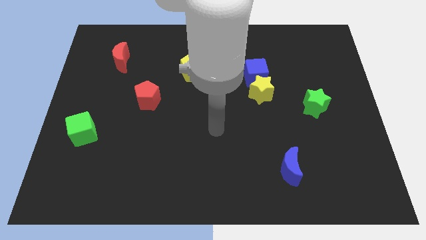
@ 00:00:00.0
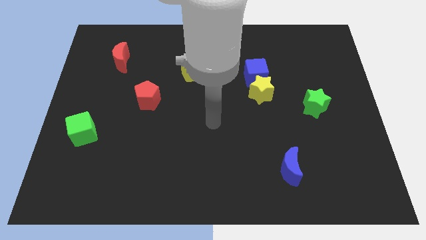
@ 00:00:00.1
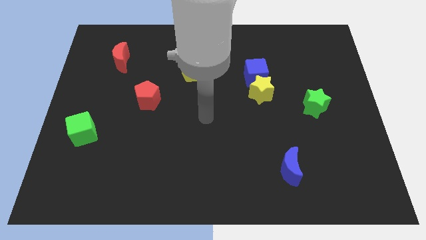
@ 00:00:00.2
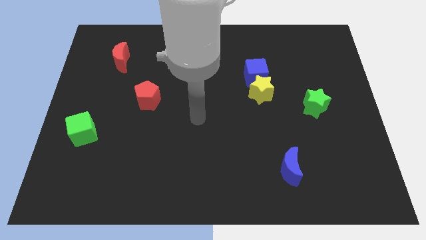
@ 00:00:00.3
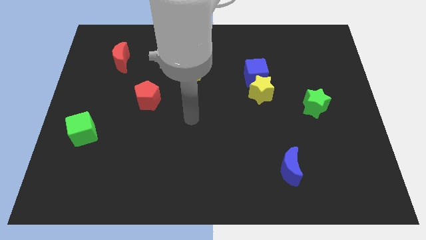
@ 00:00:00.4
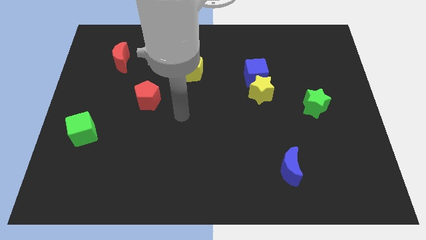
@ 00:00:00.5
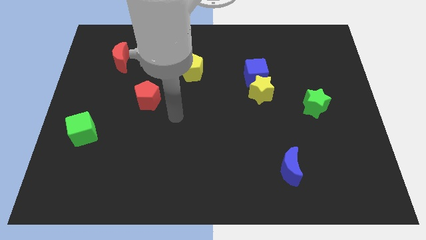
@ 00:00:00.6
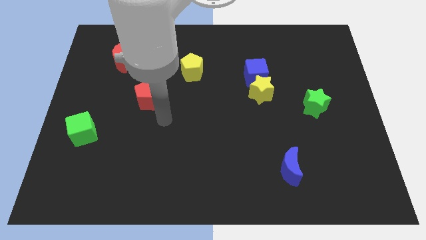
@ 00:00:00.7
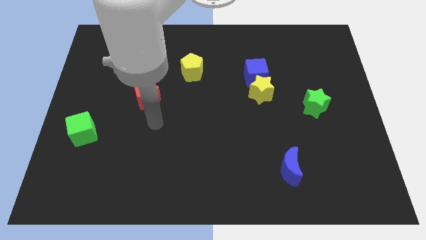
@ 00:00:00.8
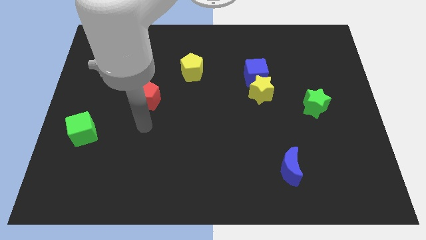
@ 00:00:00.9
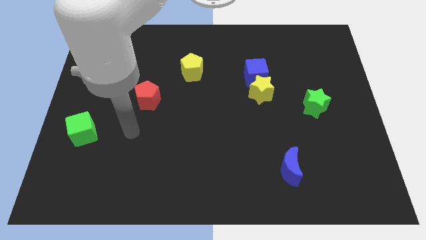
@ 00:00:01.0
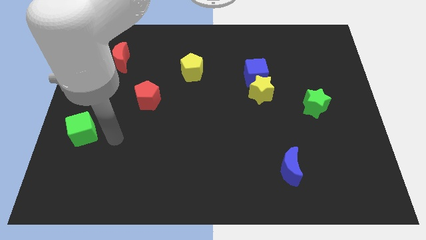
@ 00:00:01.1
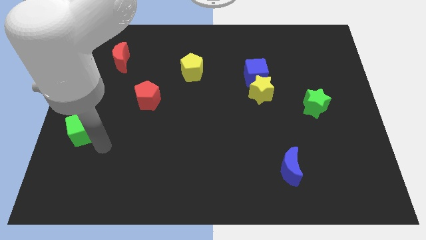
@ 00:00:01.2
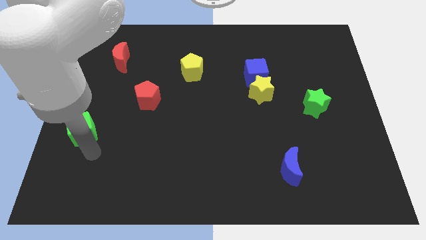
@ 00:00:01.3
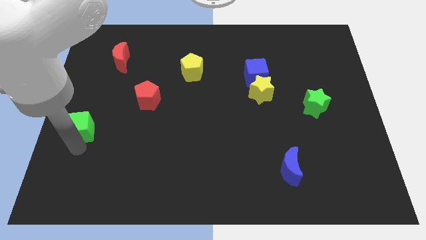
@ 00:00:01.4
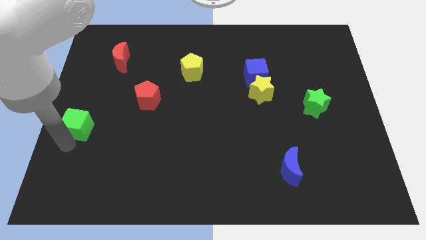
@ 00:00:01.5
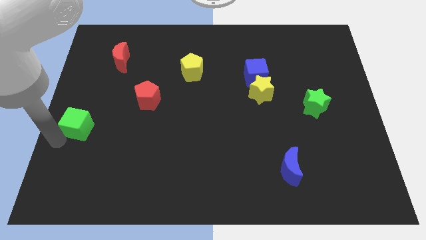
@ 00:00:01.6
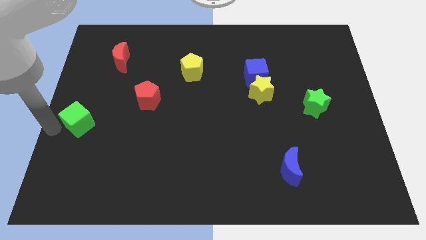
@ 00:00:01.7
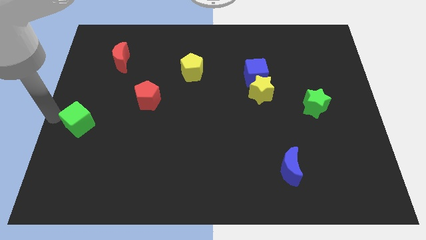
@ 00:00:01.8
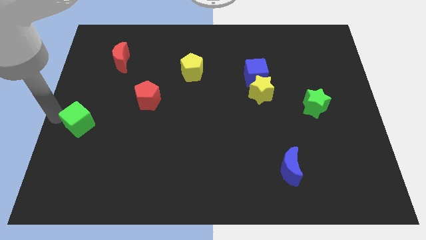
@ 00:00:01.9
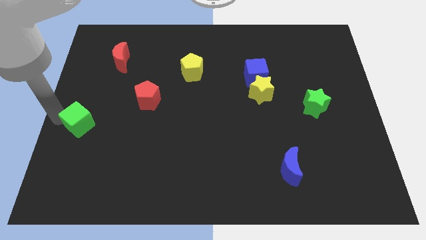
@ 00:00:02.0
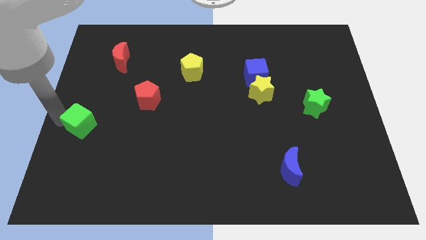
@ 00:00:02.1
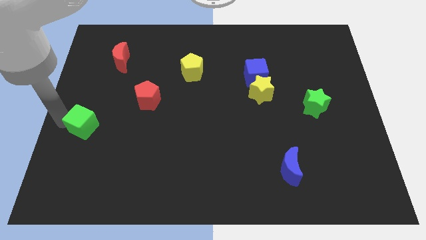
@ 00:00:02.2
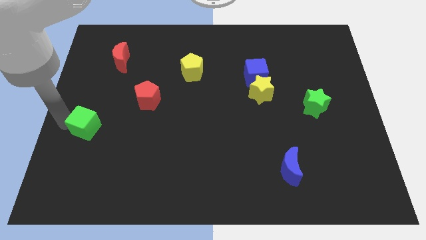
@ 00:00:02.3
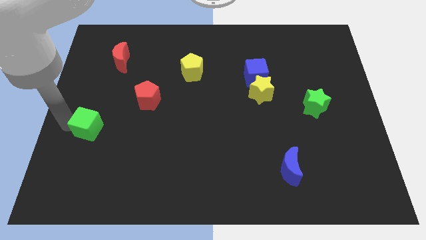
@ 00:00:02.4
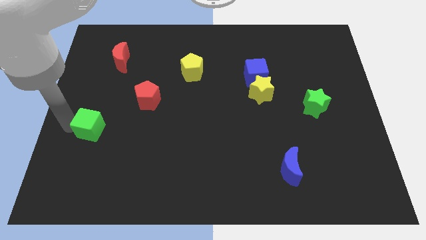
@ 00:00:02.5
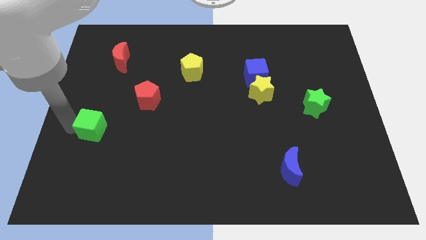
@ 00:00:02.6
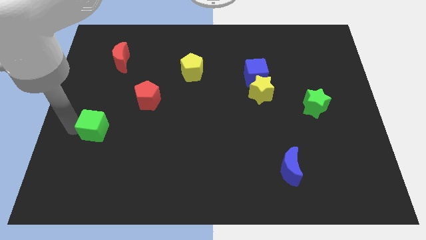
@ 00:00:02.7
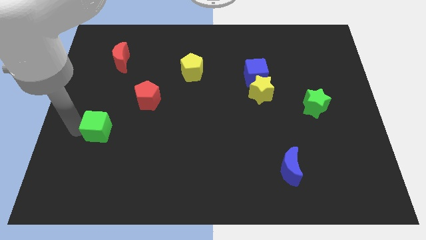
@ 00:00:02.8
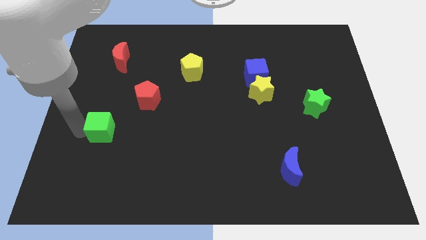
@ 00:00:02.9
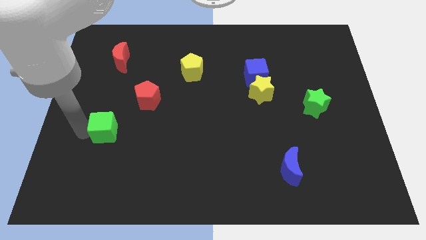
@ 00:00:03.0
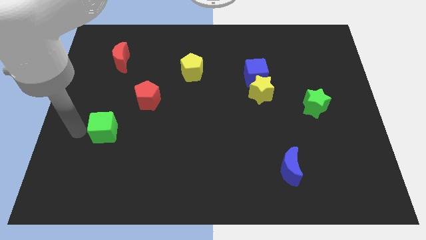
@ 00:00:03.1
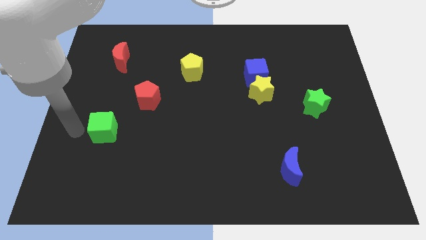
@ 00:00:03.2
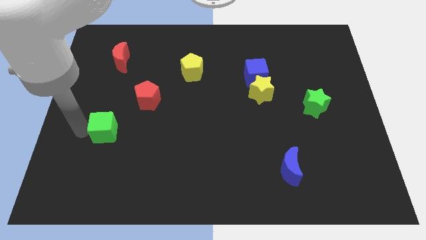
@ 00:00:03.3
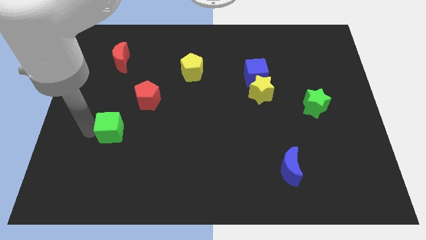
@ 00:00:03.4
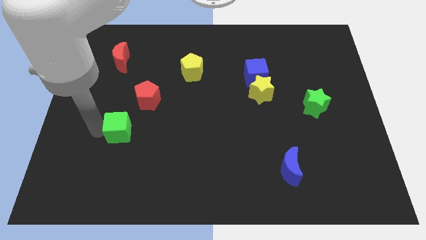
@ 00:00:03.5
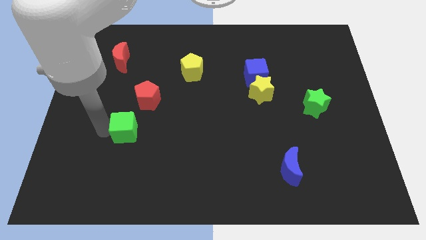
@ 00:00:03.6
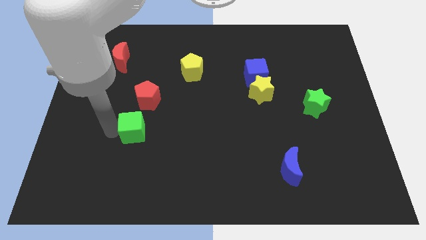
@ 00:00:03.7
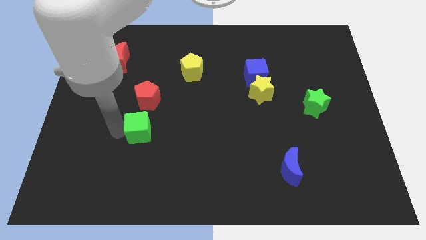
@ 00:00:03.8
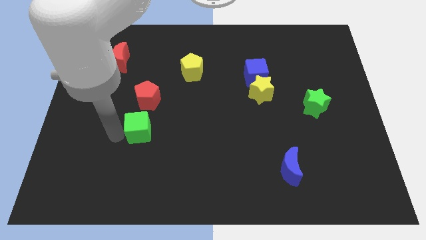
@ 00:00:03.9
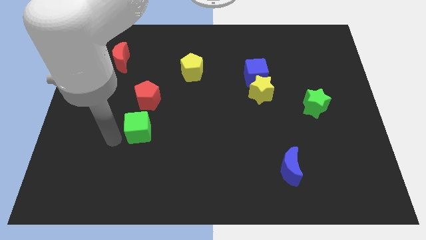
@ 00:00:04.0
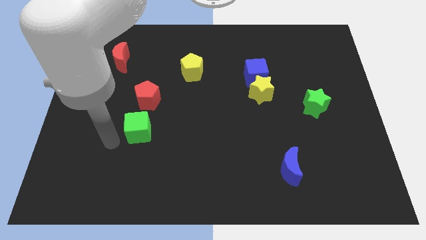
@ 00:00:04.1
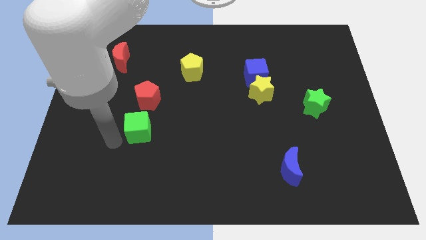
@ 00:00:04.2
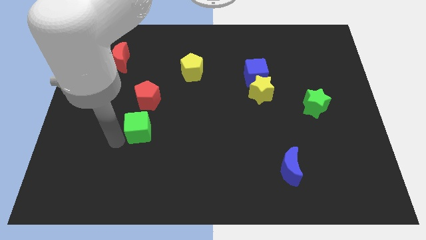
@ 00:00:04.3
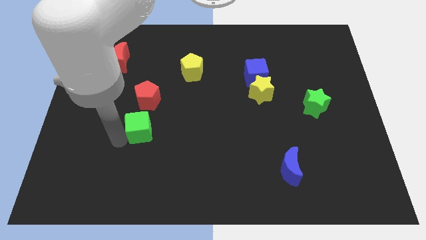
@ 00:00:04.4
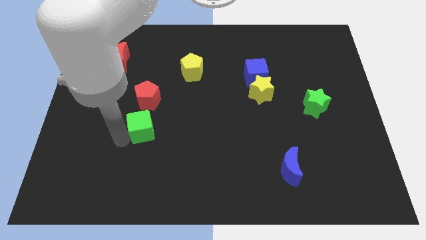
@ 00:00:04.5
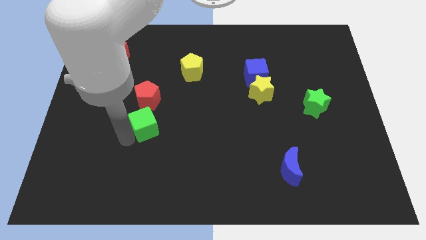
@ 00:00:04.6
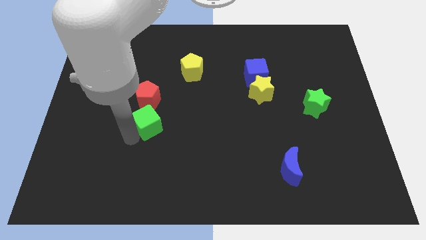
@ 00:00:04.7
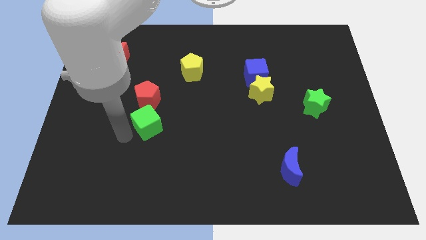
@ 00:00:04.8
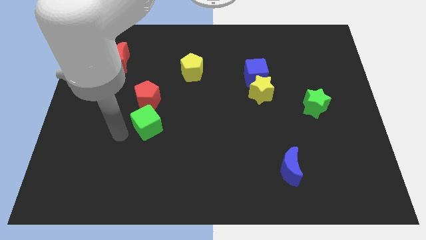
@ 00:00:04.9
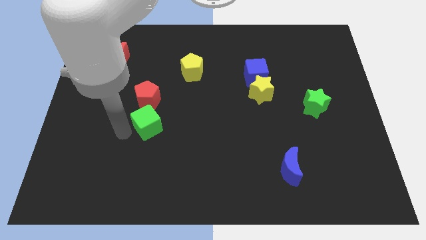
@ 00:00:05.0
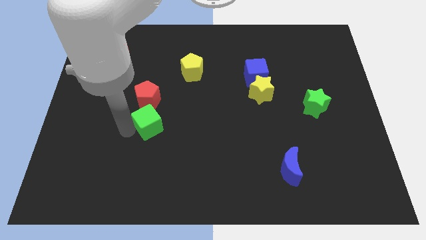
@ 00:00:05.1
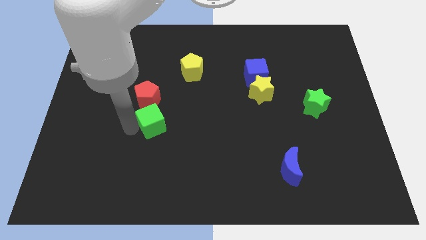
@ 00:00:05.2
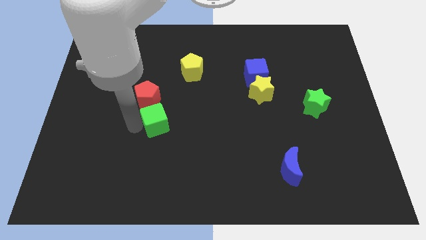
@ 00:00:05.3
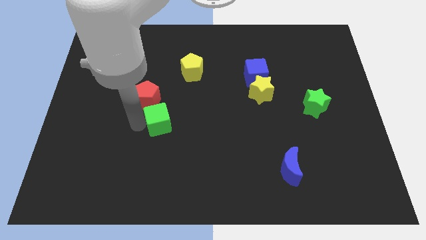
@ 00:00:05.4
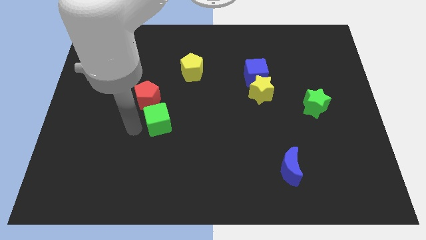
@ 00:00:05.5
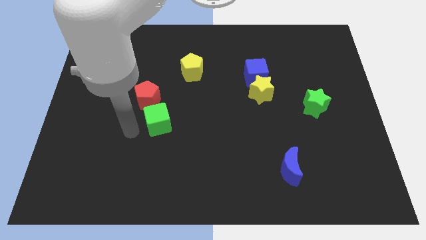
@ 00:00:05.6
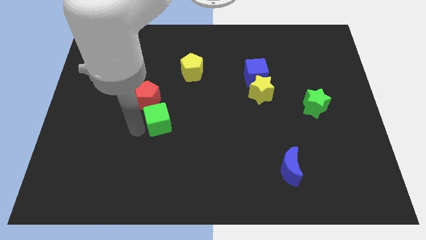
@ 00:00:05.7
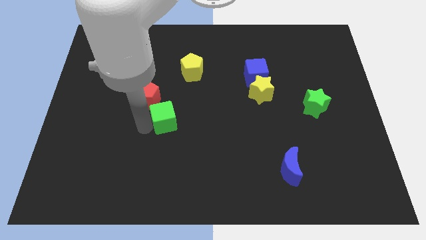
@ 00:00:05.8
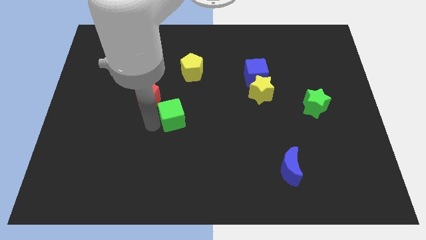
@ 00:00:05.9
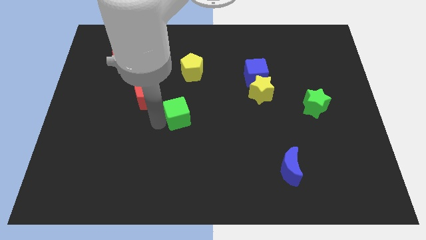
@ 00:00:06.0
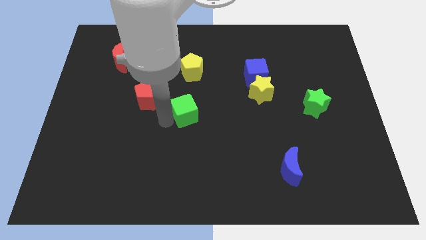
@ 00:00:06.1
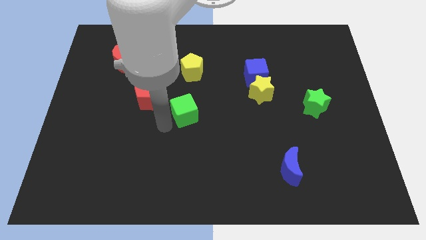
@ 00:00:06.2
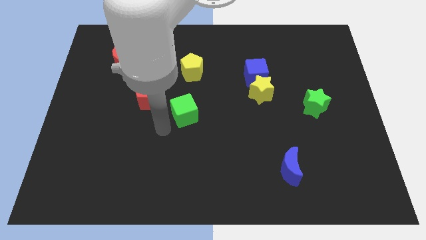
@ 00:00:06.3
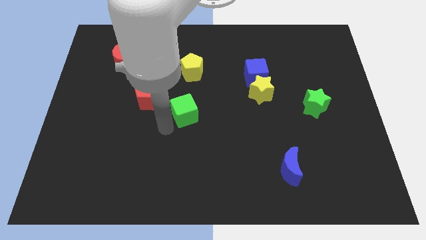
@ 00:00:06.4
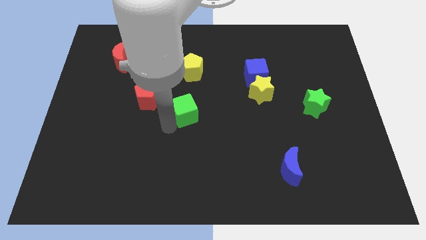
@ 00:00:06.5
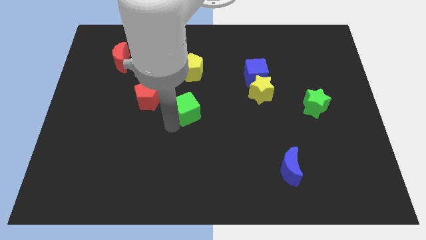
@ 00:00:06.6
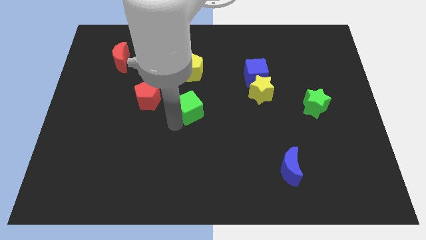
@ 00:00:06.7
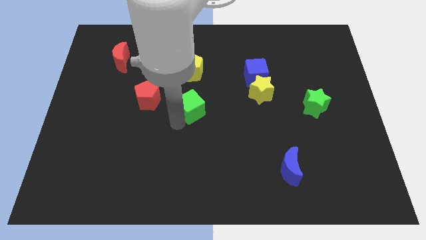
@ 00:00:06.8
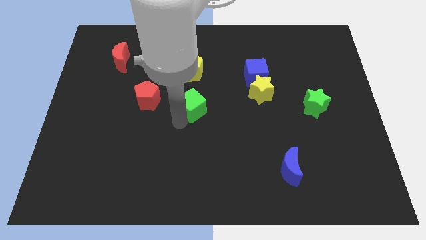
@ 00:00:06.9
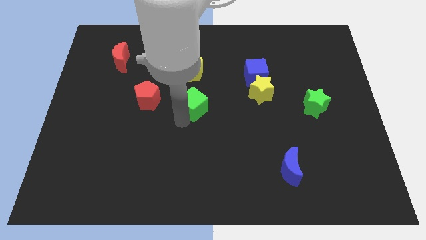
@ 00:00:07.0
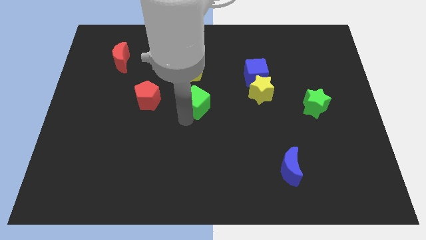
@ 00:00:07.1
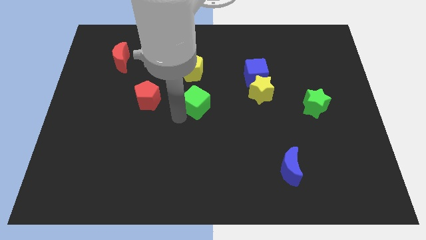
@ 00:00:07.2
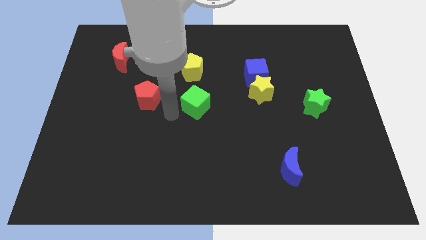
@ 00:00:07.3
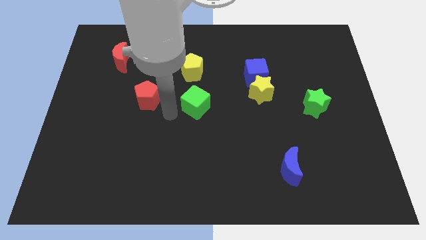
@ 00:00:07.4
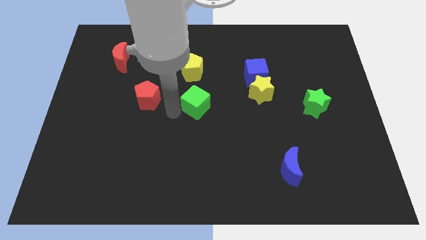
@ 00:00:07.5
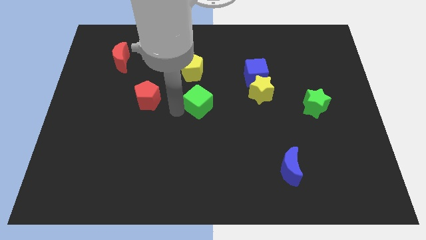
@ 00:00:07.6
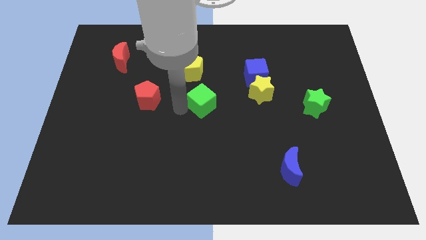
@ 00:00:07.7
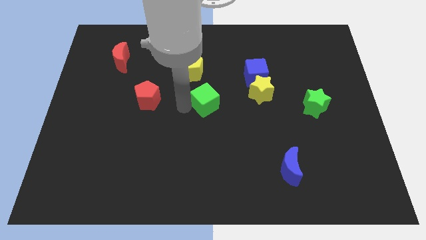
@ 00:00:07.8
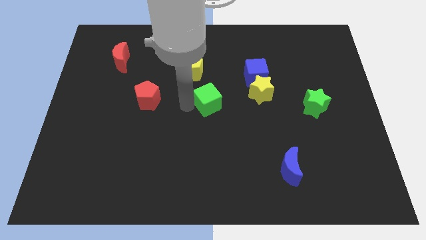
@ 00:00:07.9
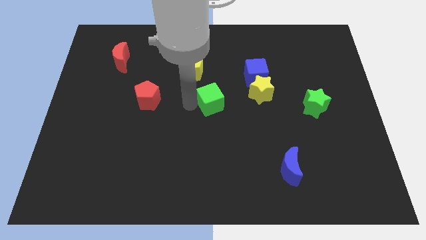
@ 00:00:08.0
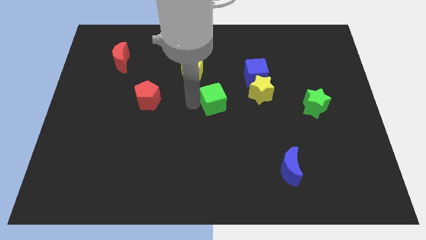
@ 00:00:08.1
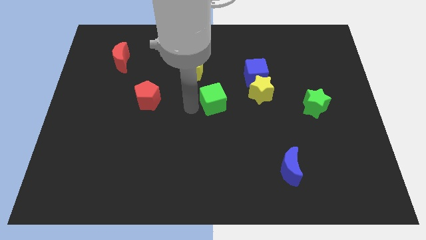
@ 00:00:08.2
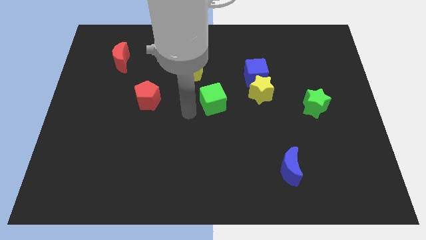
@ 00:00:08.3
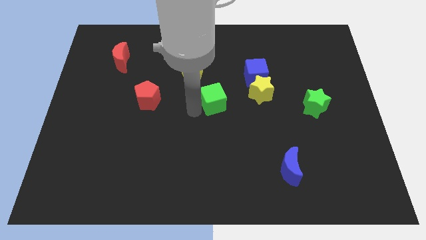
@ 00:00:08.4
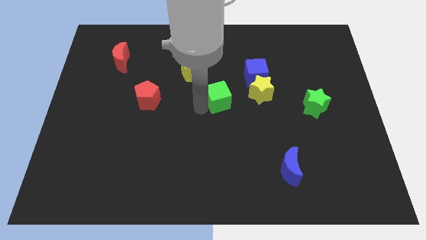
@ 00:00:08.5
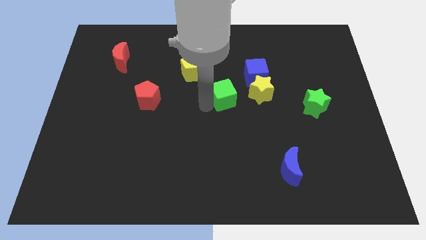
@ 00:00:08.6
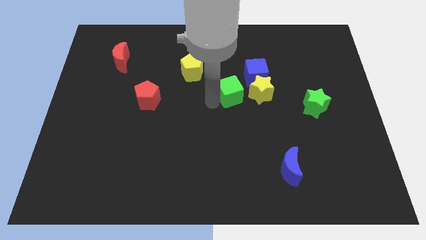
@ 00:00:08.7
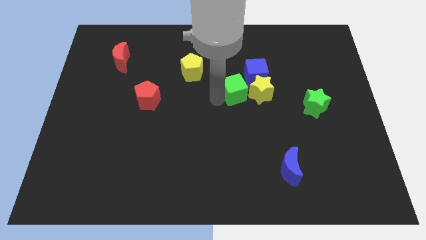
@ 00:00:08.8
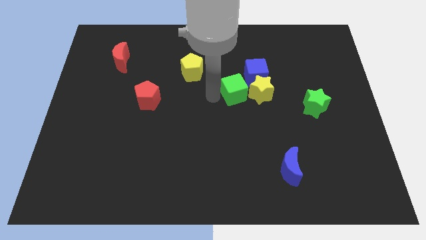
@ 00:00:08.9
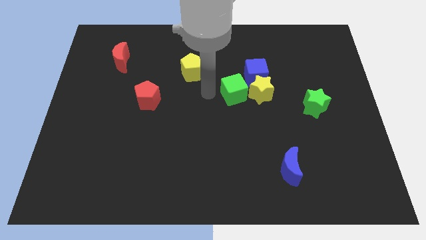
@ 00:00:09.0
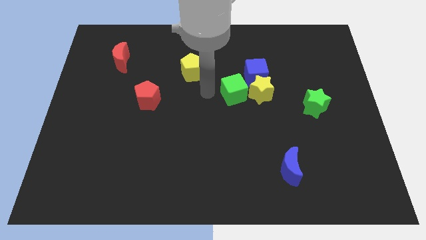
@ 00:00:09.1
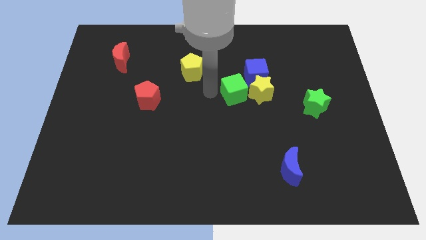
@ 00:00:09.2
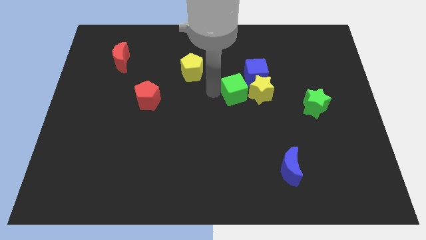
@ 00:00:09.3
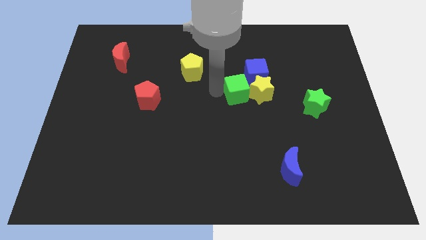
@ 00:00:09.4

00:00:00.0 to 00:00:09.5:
push the green cube close to the yellow star
